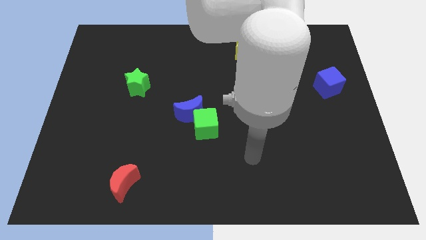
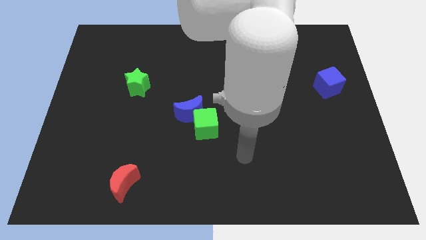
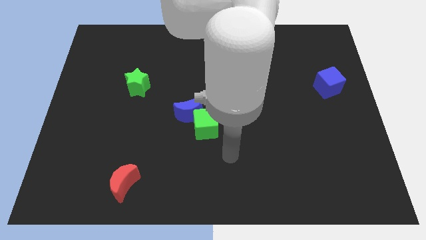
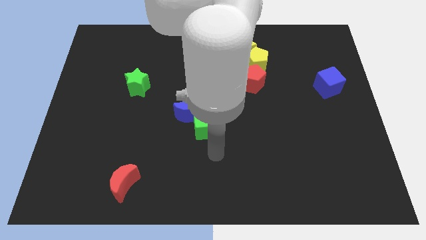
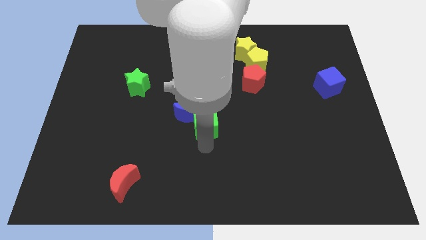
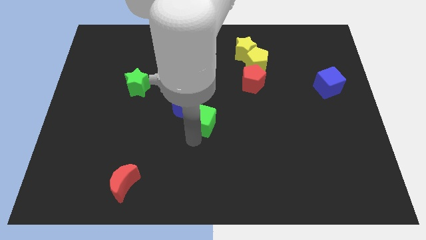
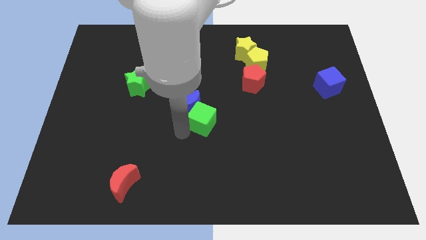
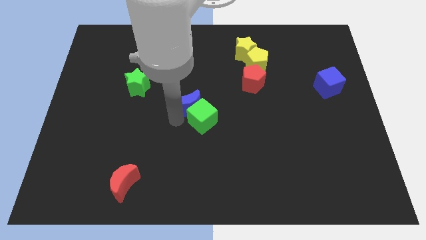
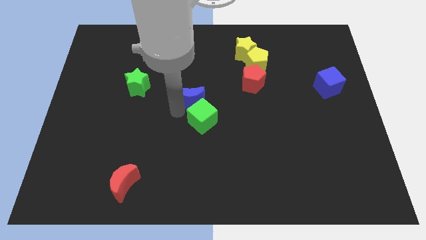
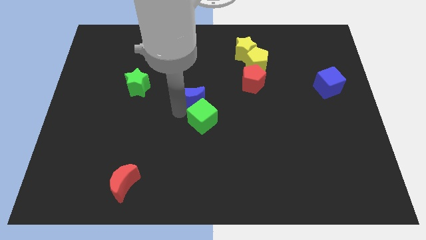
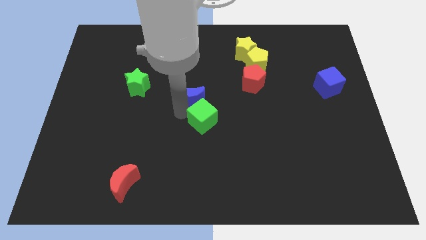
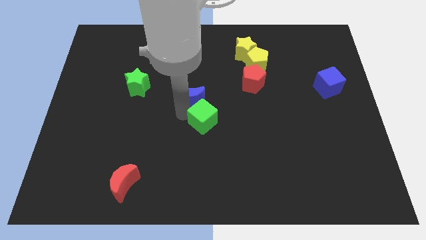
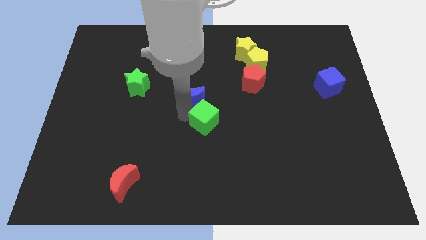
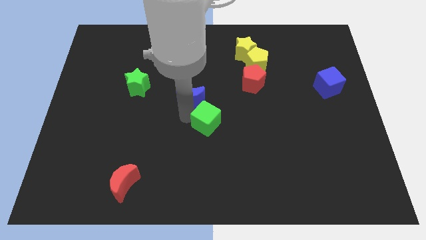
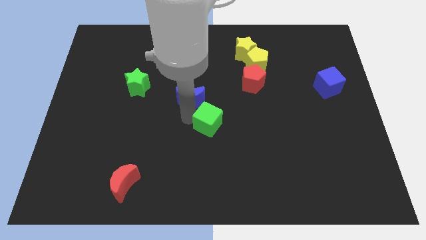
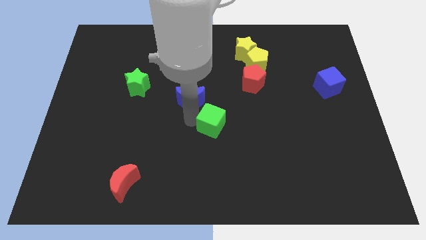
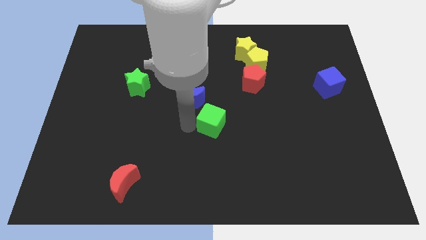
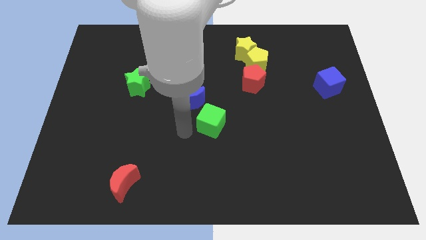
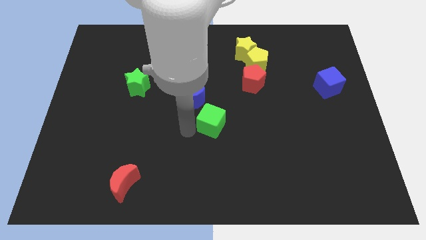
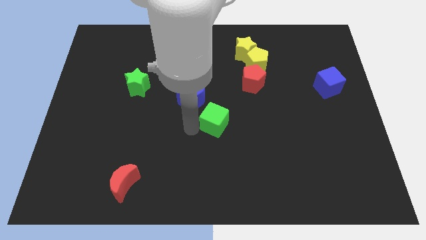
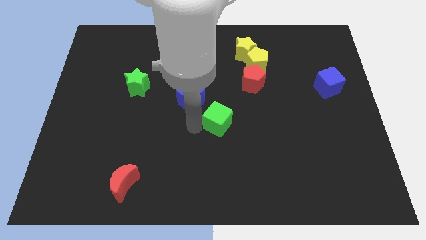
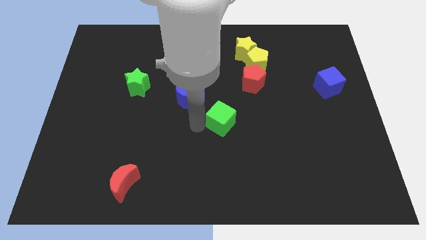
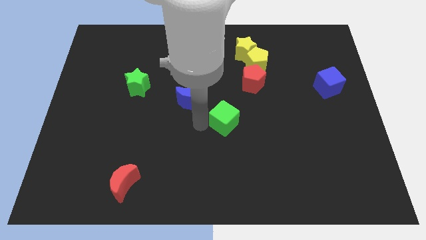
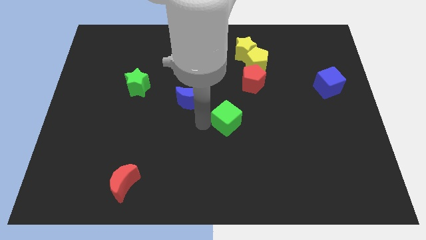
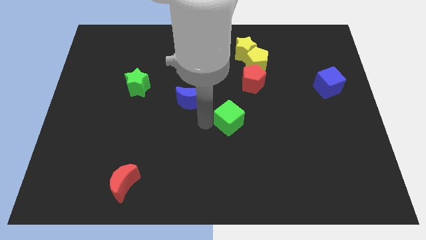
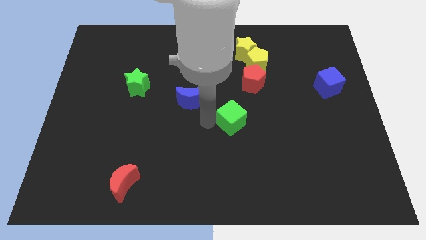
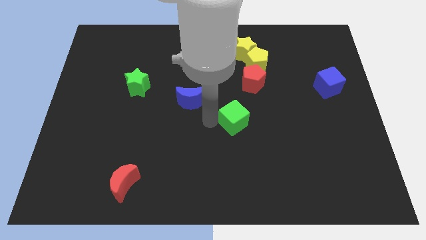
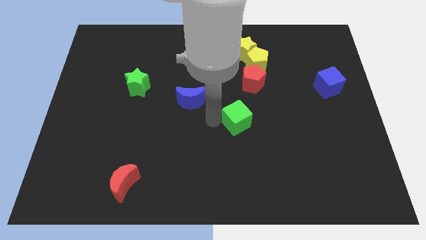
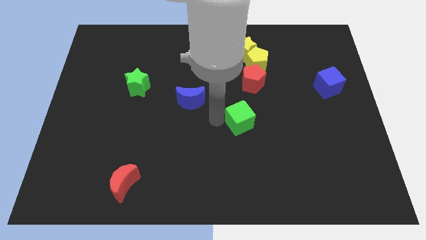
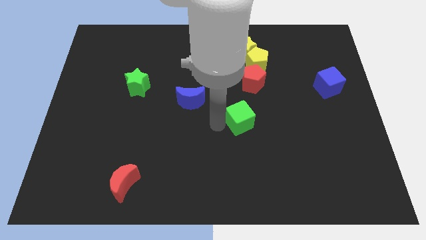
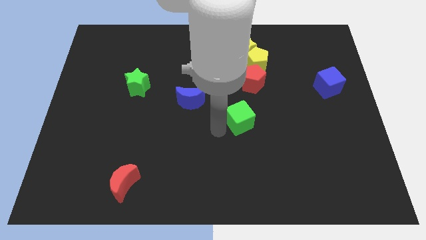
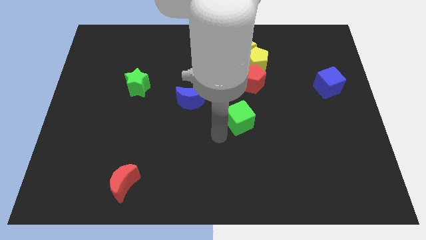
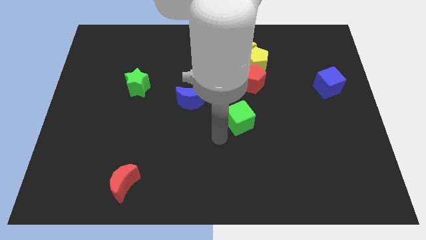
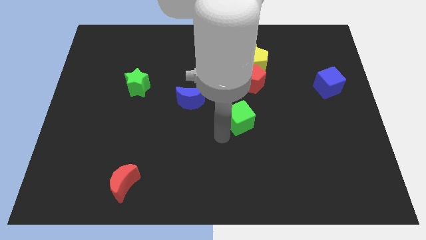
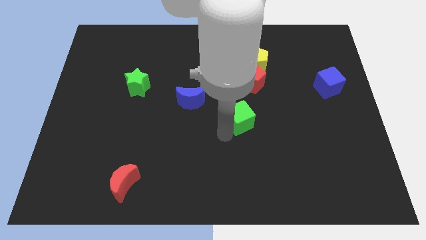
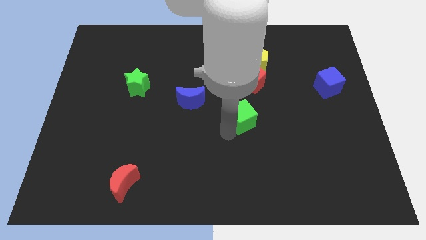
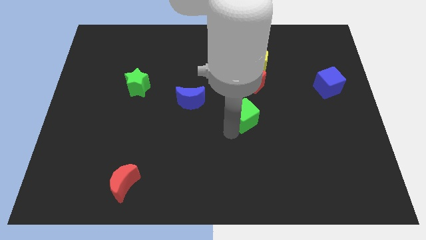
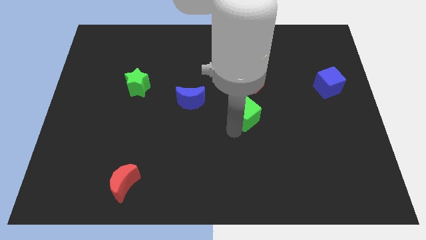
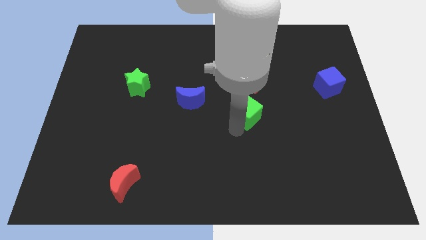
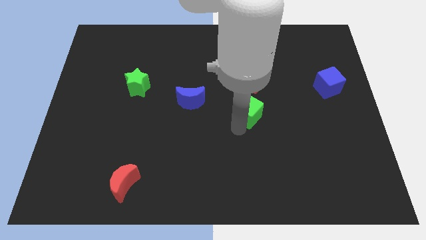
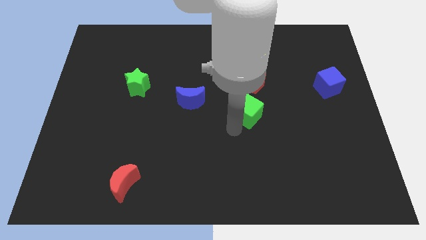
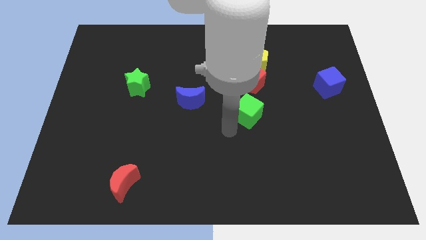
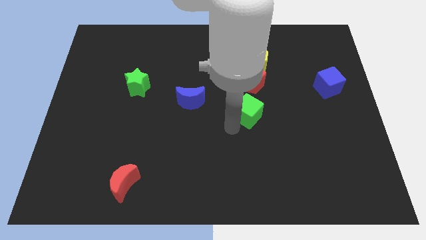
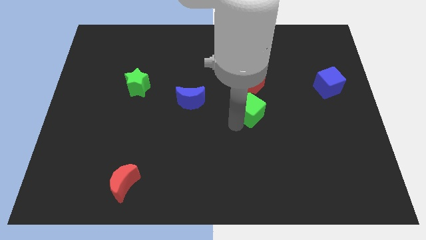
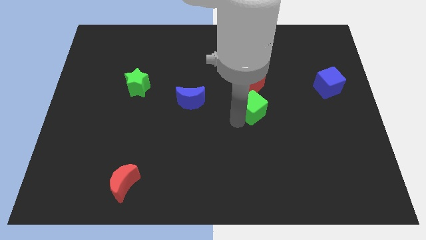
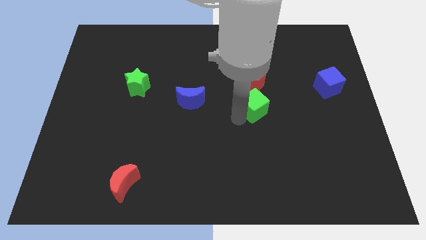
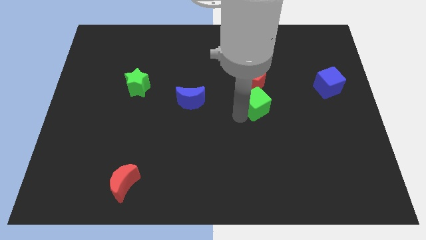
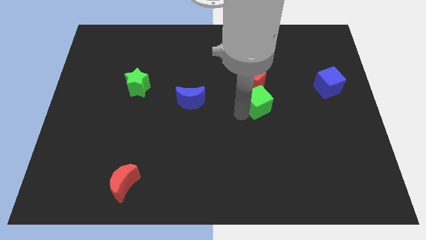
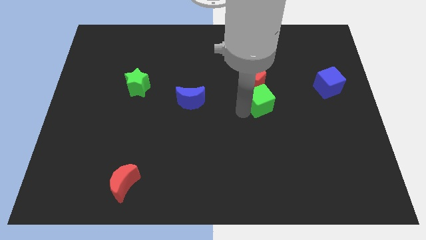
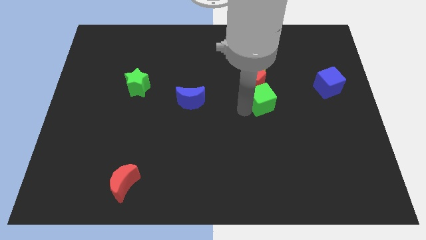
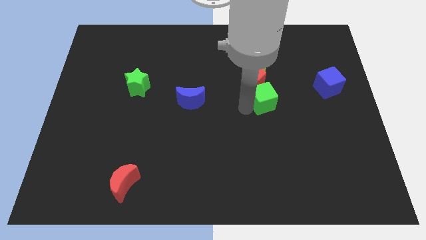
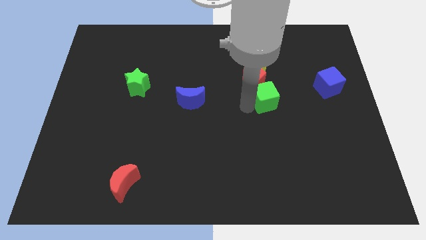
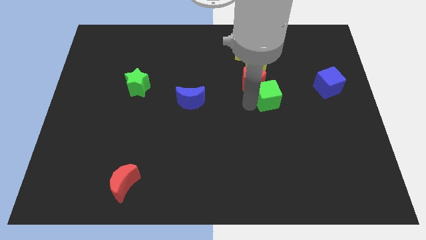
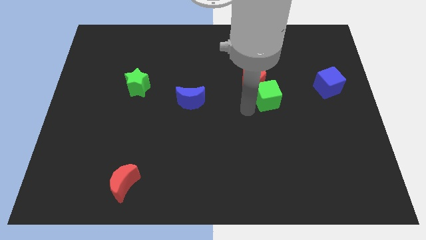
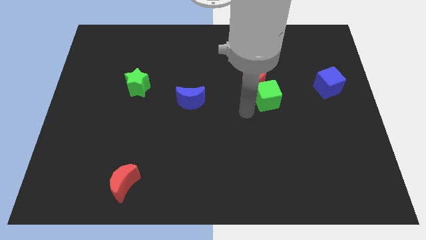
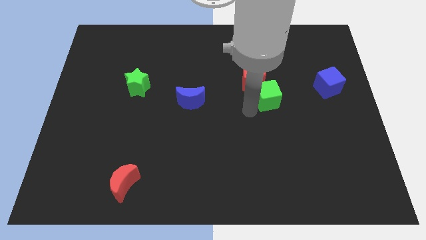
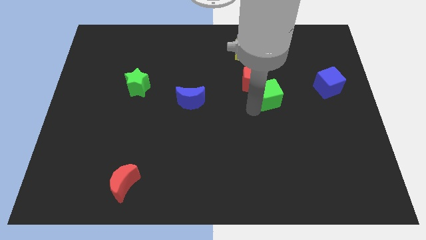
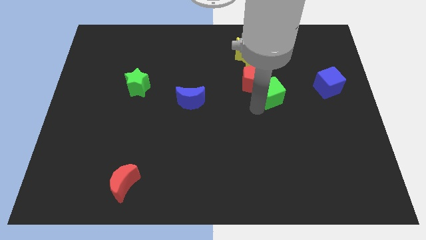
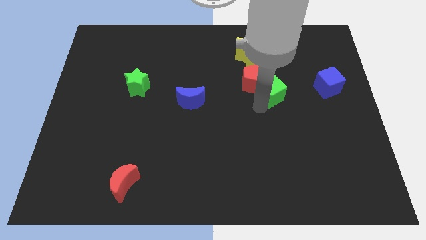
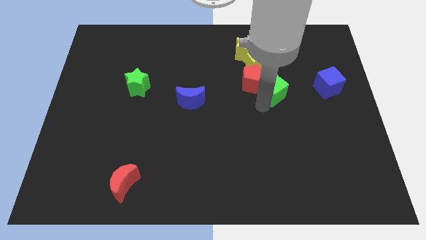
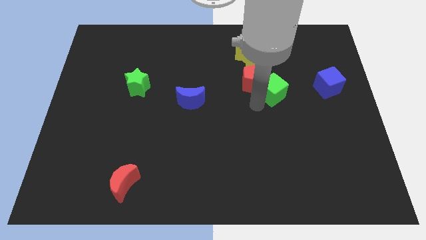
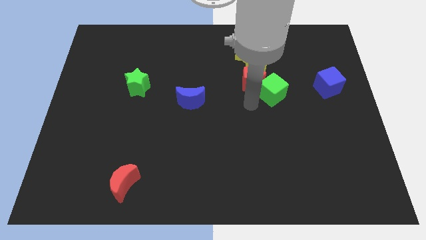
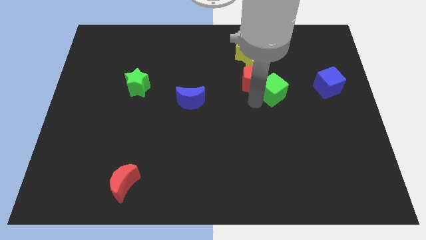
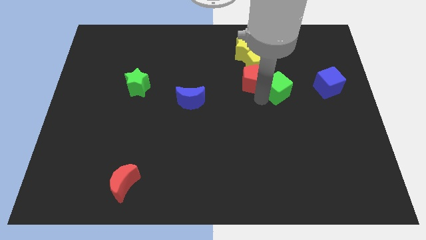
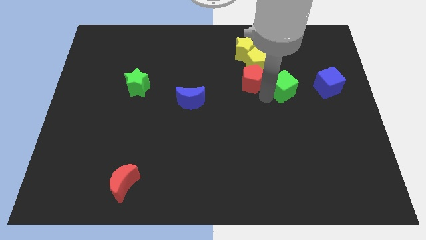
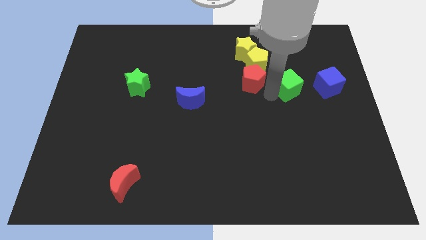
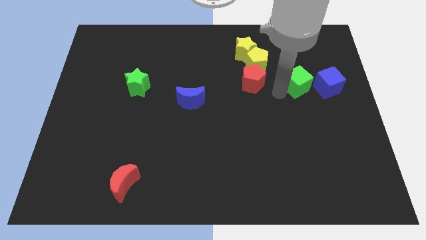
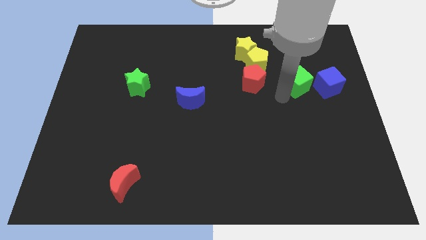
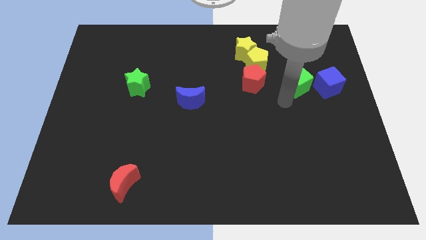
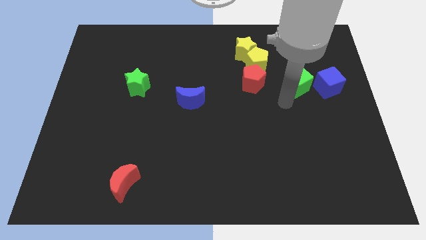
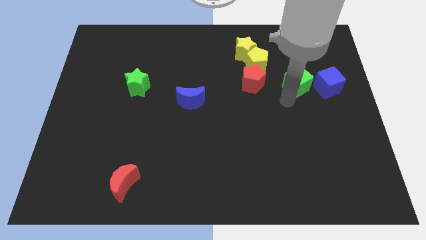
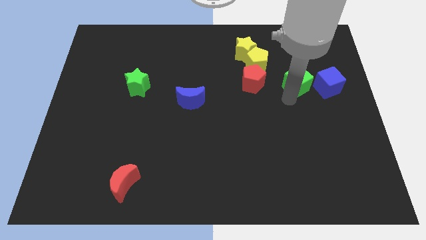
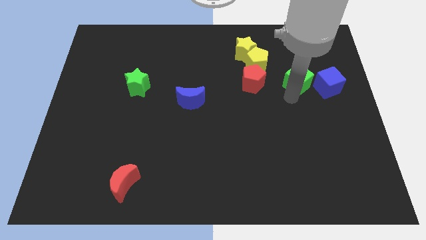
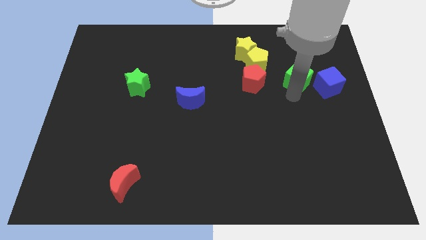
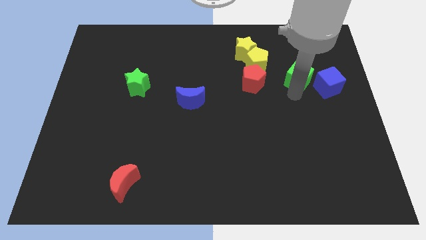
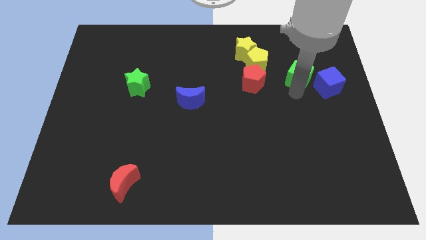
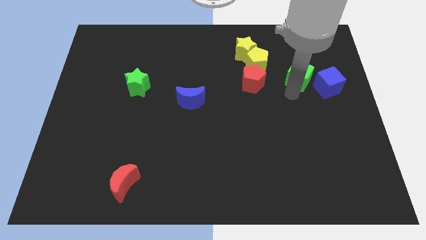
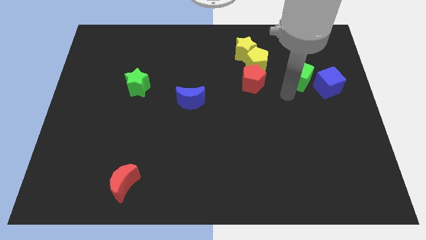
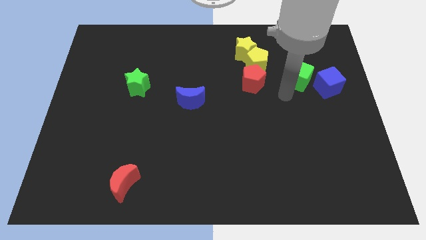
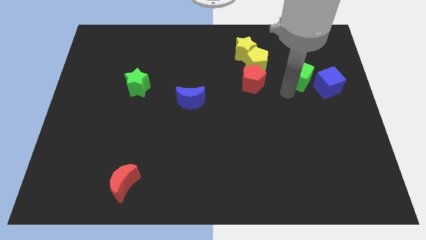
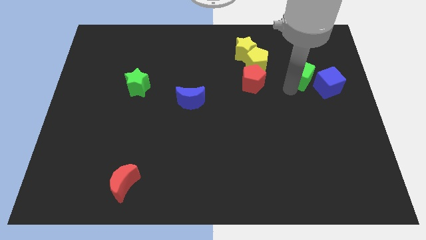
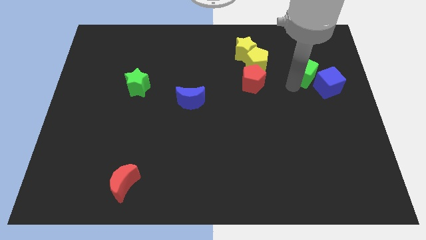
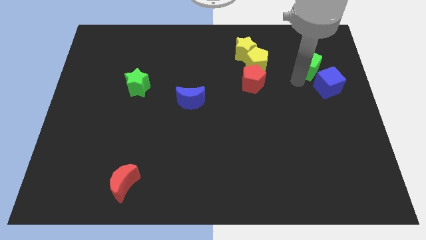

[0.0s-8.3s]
slide the green cube above the blue cube
